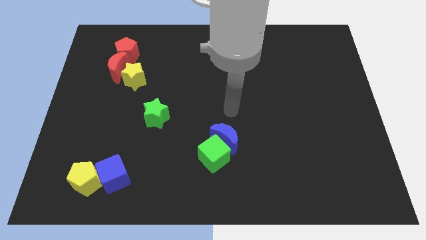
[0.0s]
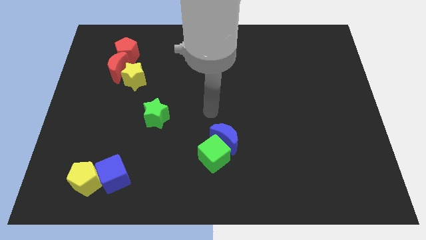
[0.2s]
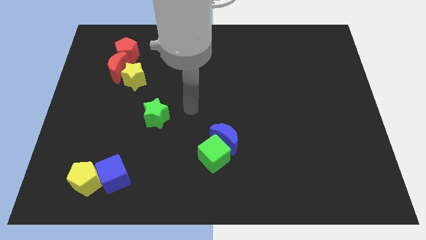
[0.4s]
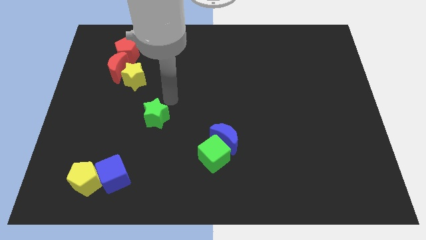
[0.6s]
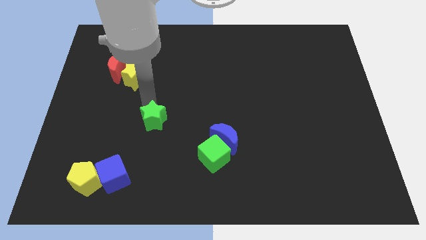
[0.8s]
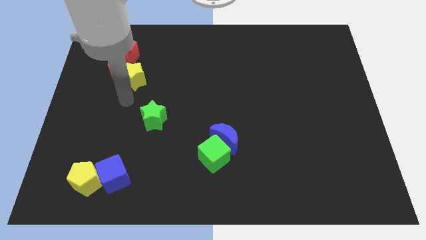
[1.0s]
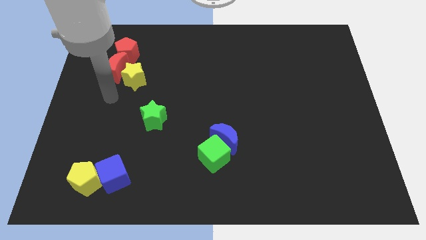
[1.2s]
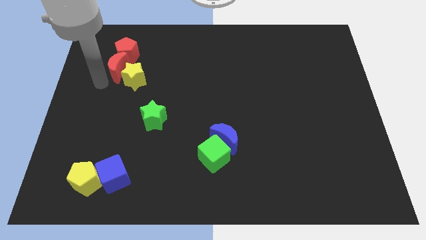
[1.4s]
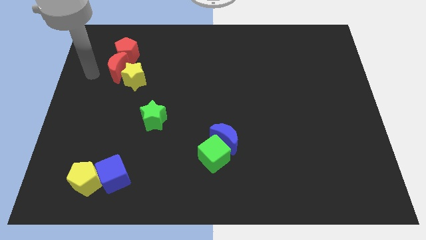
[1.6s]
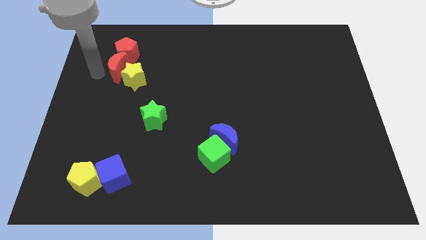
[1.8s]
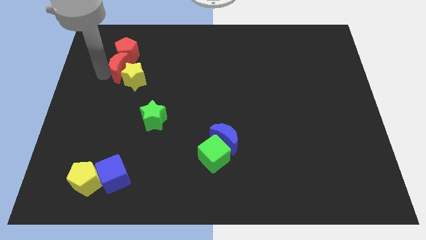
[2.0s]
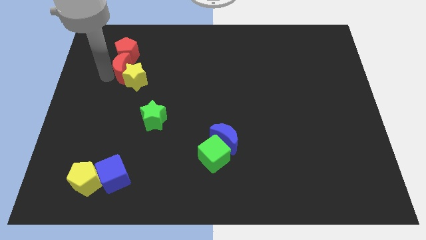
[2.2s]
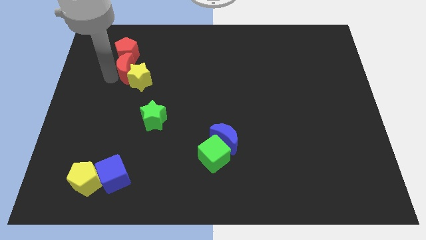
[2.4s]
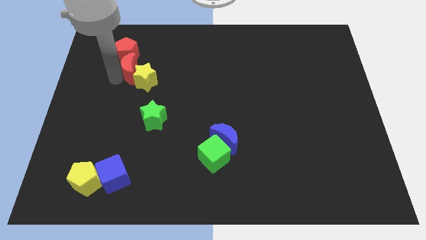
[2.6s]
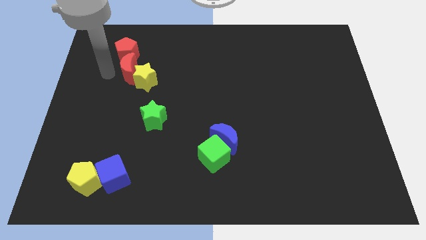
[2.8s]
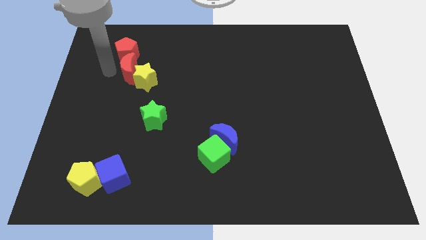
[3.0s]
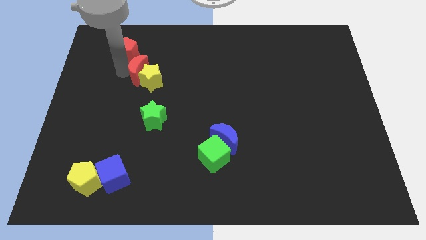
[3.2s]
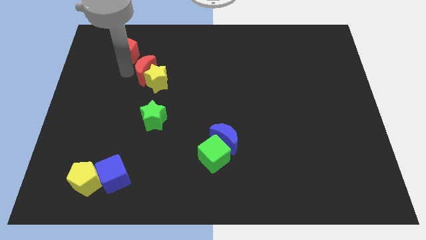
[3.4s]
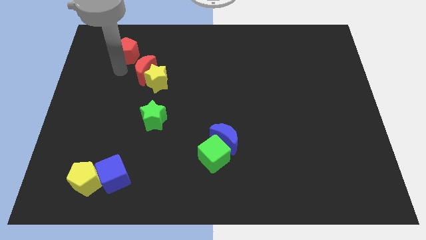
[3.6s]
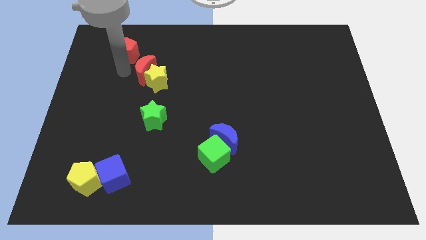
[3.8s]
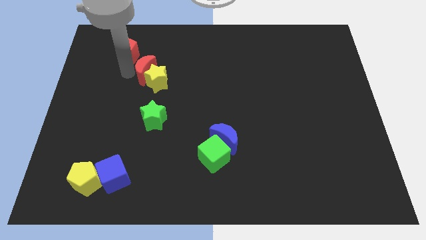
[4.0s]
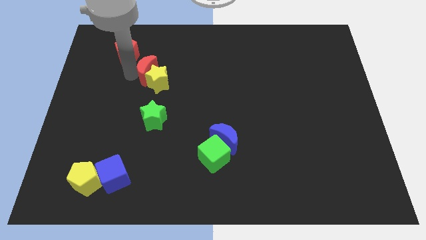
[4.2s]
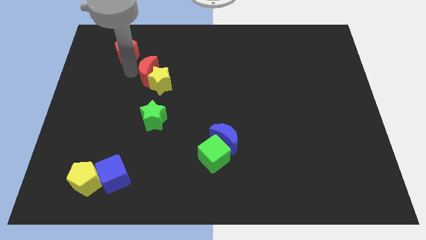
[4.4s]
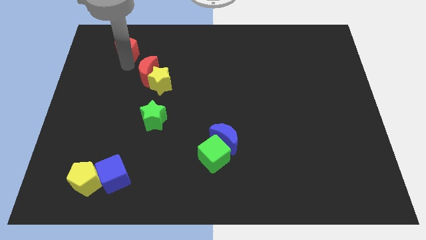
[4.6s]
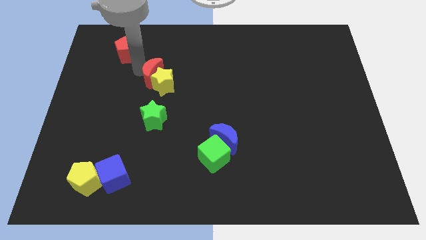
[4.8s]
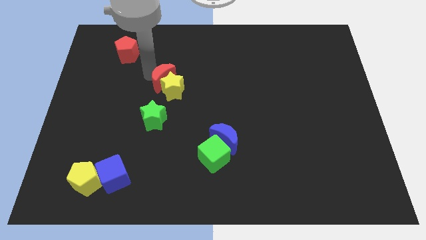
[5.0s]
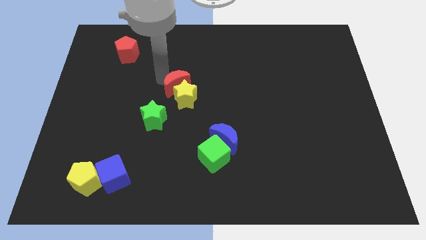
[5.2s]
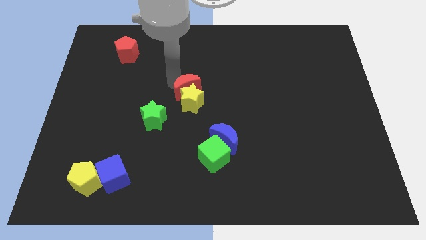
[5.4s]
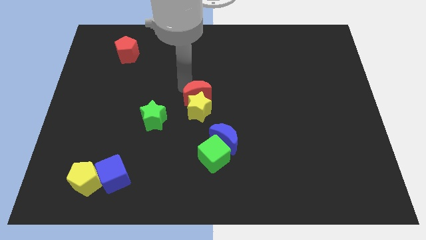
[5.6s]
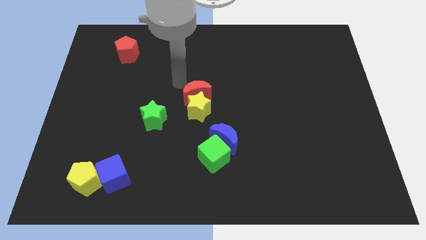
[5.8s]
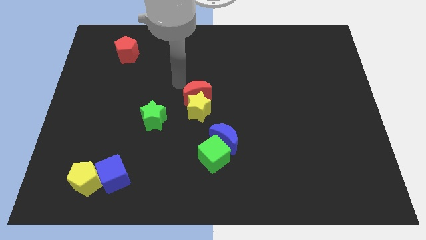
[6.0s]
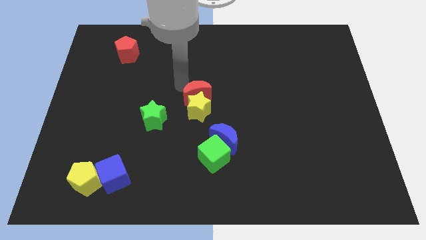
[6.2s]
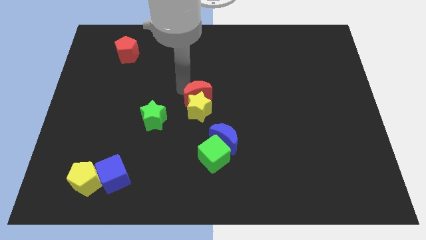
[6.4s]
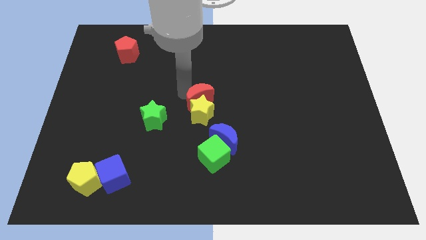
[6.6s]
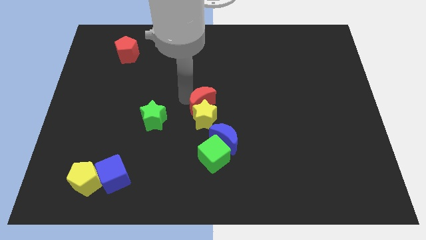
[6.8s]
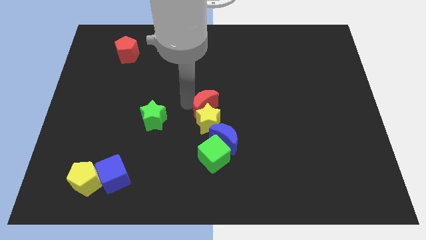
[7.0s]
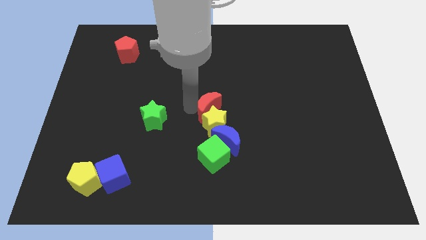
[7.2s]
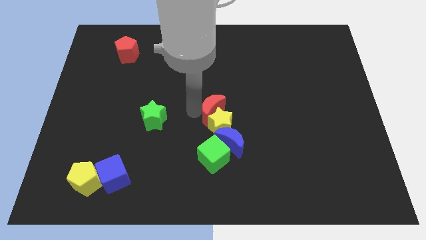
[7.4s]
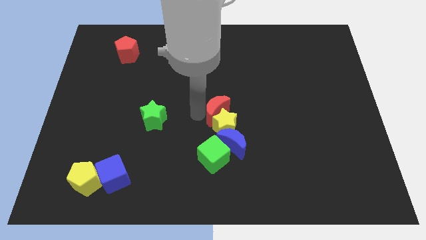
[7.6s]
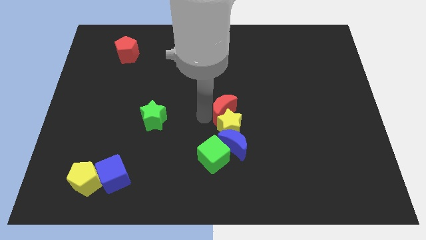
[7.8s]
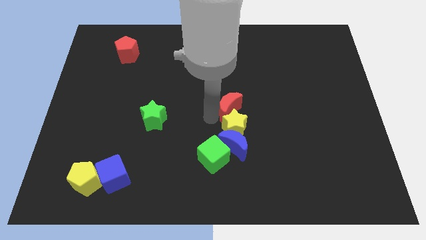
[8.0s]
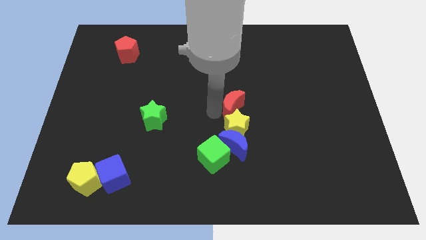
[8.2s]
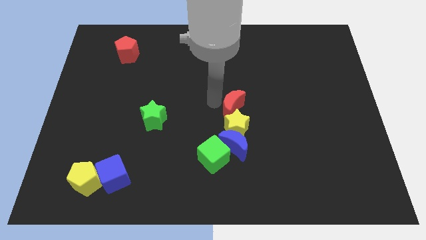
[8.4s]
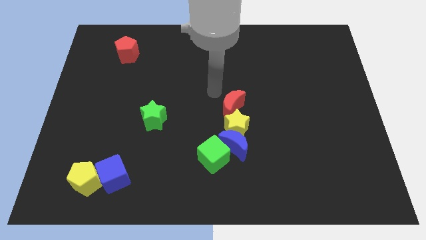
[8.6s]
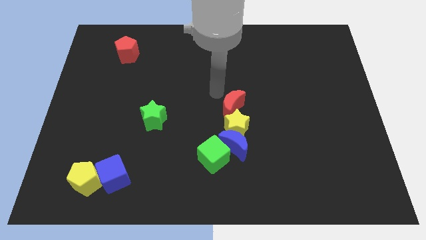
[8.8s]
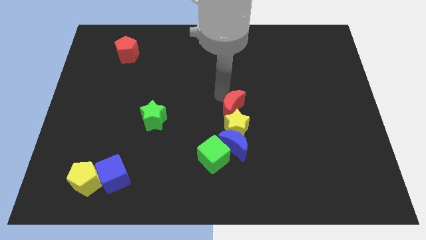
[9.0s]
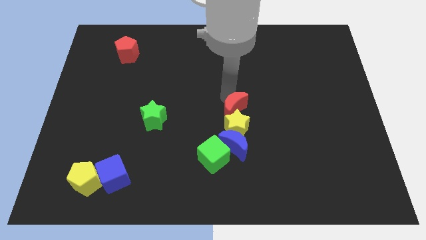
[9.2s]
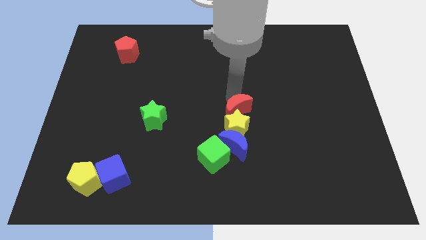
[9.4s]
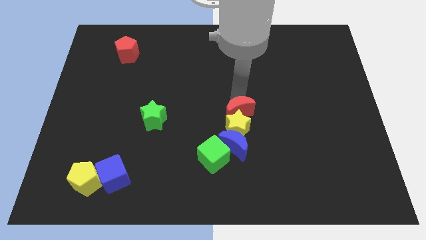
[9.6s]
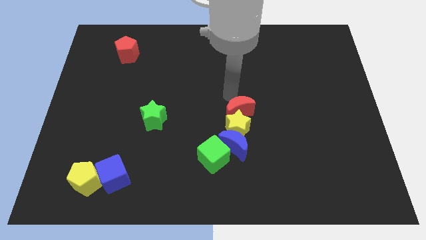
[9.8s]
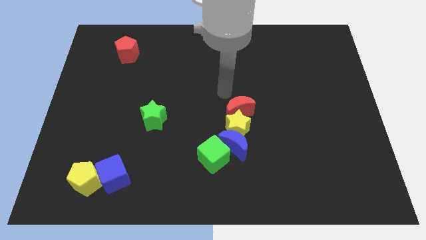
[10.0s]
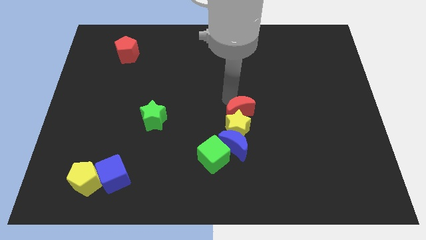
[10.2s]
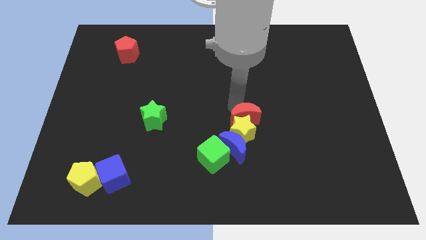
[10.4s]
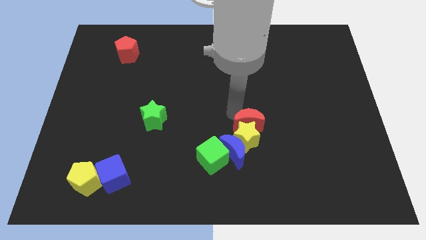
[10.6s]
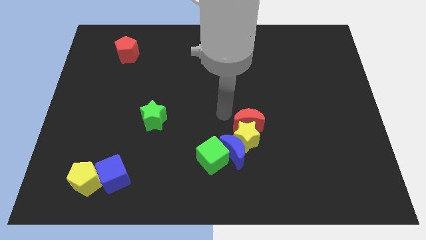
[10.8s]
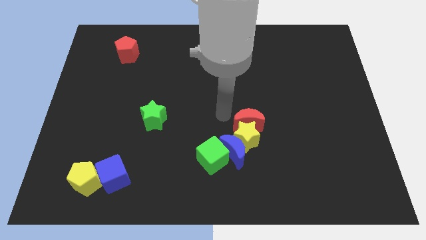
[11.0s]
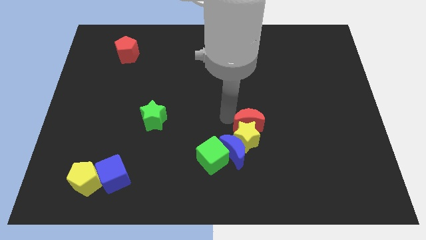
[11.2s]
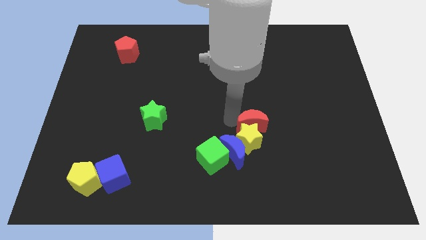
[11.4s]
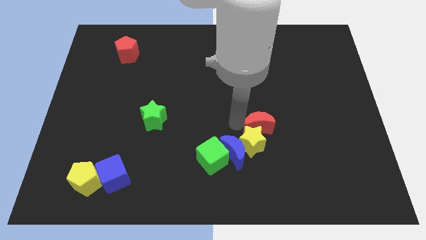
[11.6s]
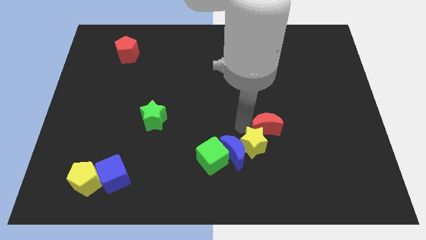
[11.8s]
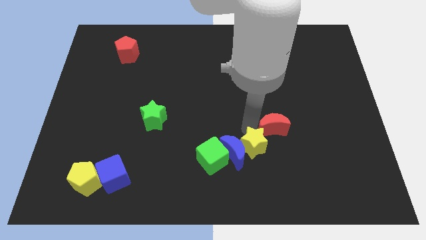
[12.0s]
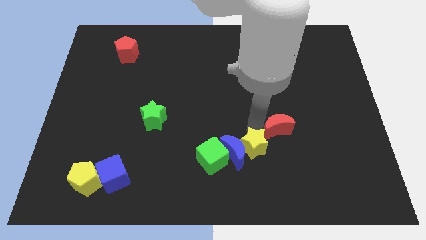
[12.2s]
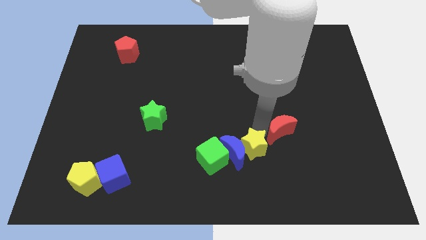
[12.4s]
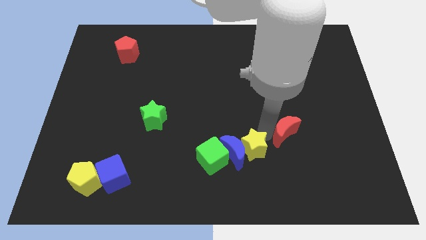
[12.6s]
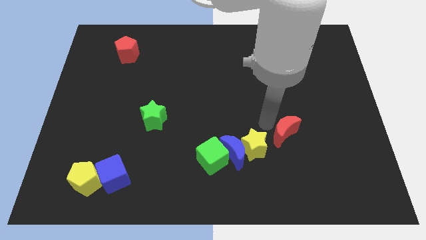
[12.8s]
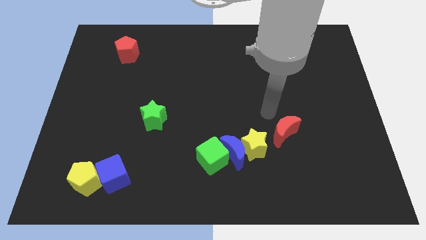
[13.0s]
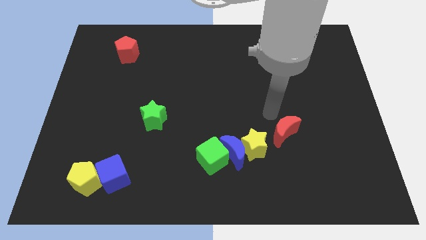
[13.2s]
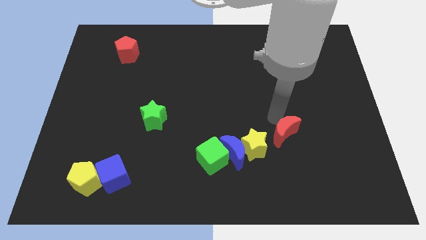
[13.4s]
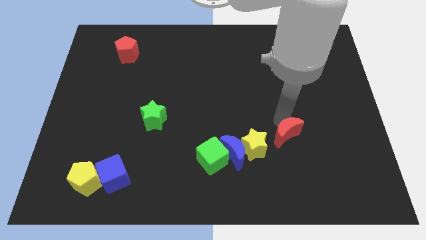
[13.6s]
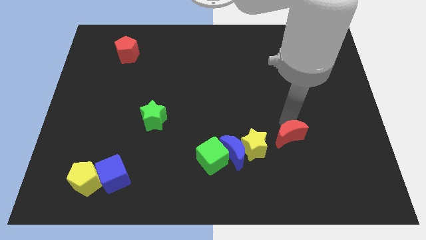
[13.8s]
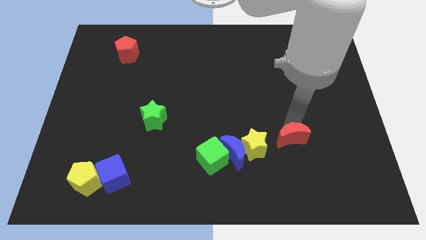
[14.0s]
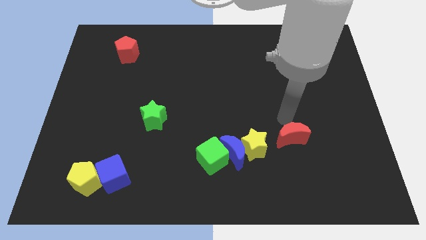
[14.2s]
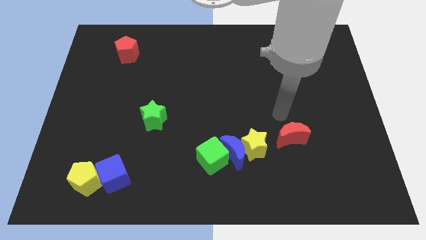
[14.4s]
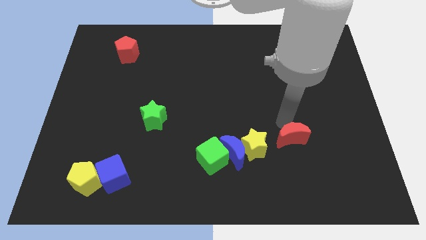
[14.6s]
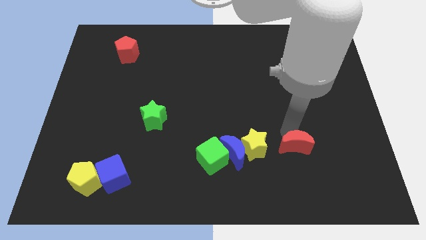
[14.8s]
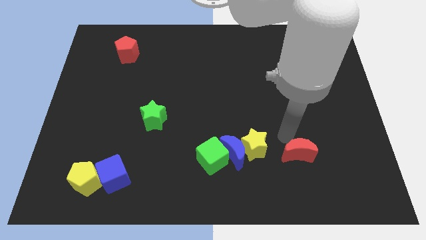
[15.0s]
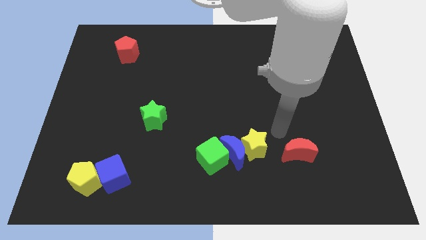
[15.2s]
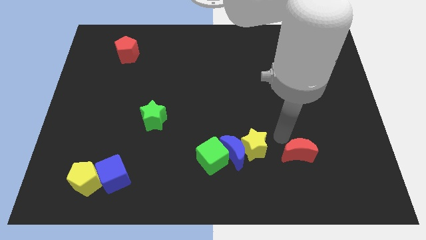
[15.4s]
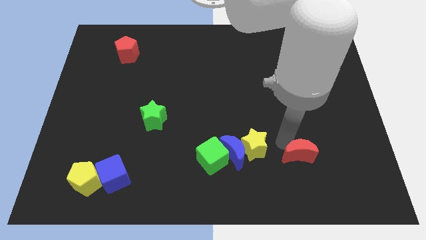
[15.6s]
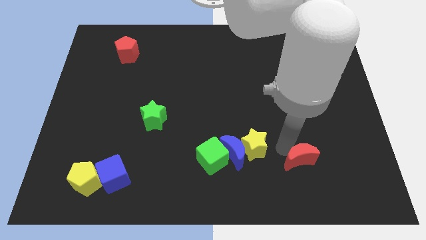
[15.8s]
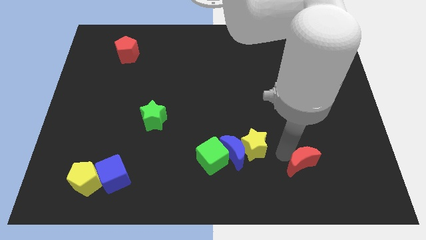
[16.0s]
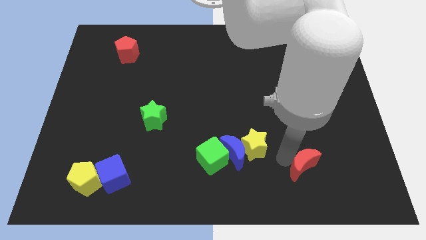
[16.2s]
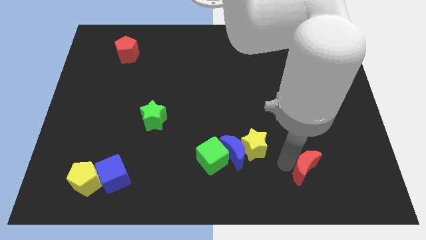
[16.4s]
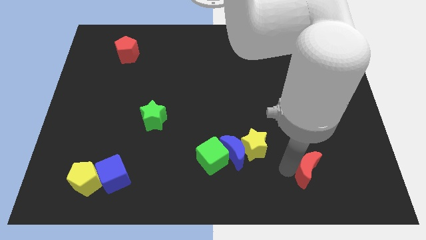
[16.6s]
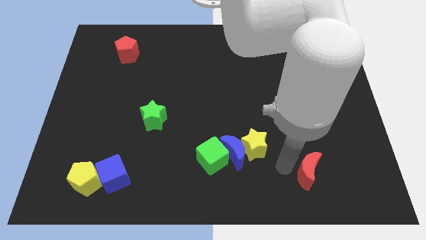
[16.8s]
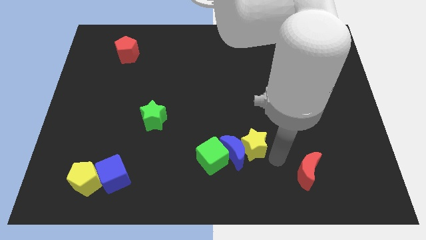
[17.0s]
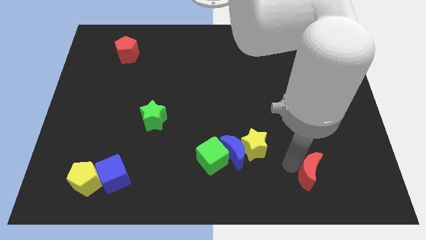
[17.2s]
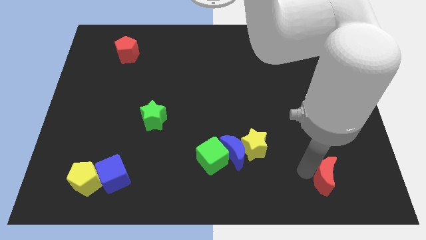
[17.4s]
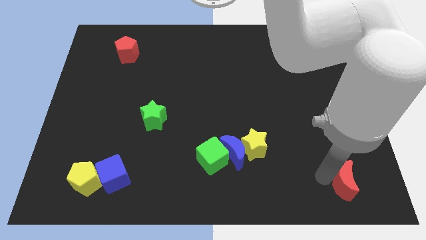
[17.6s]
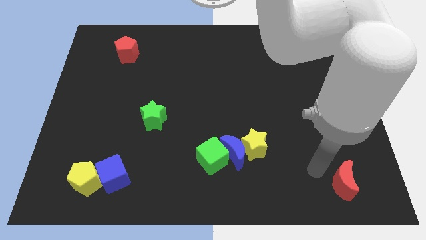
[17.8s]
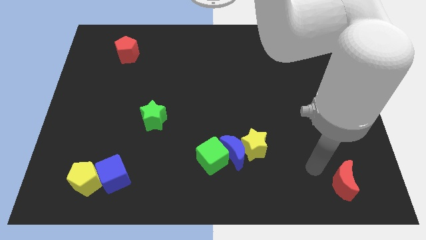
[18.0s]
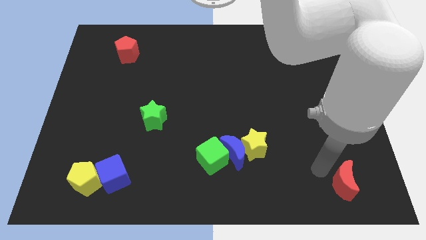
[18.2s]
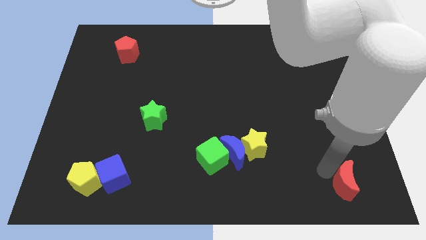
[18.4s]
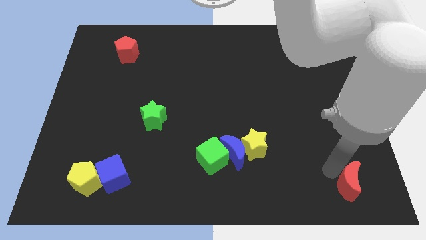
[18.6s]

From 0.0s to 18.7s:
slide the red moon to the bottom right of the board
